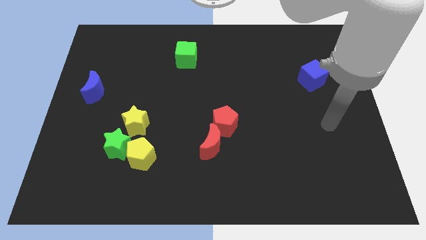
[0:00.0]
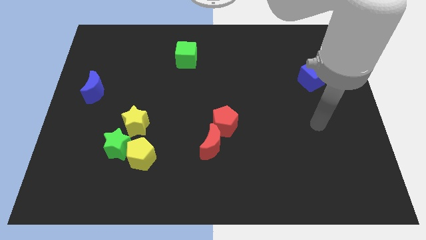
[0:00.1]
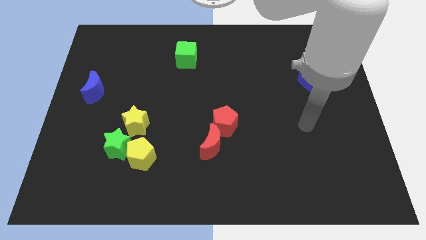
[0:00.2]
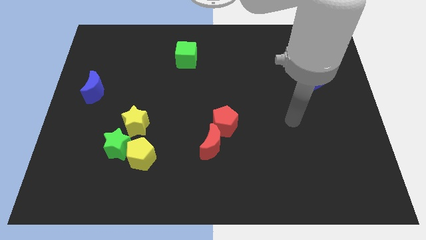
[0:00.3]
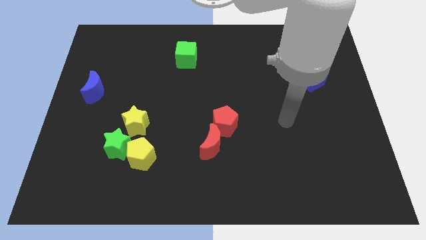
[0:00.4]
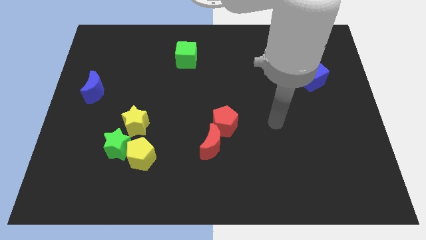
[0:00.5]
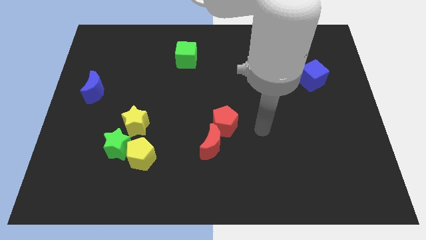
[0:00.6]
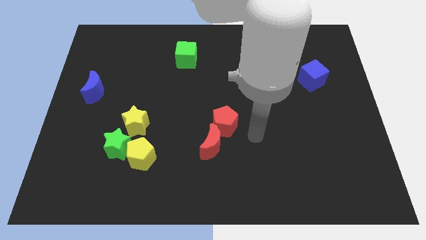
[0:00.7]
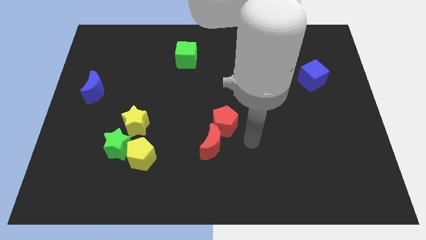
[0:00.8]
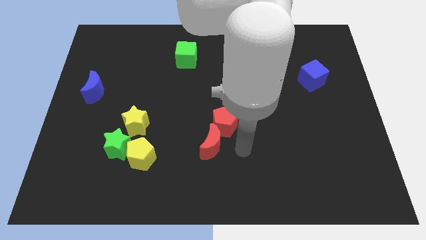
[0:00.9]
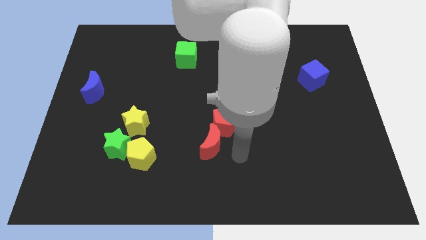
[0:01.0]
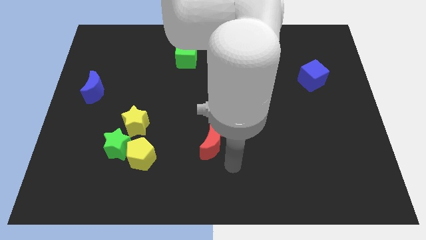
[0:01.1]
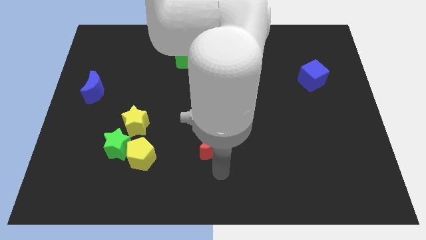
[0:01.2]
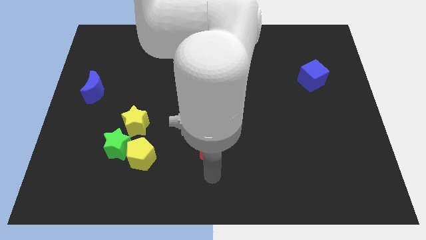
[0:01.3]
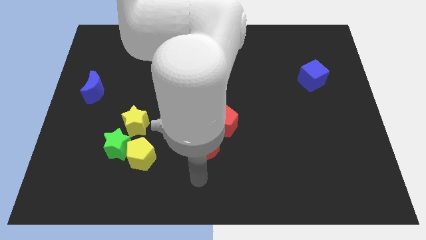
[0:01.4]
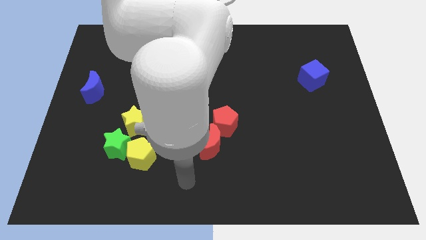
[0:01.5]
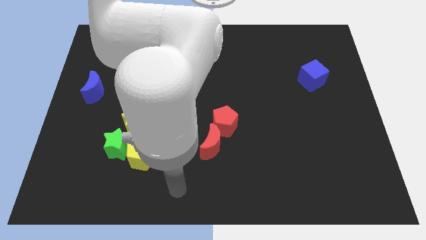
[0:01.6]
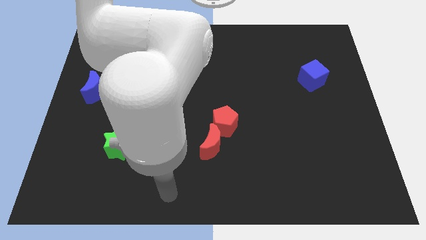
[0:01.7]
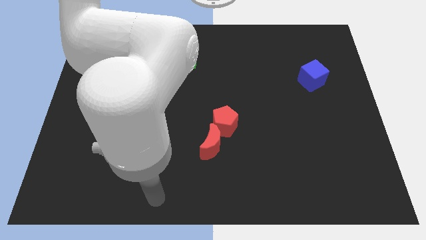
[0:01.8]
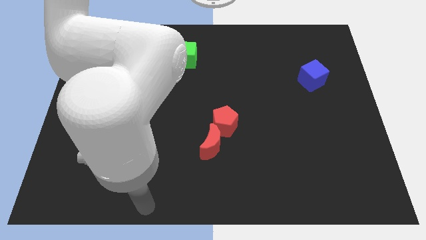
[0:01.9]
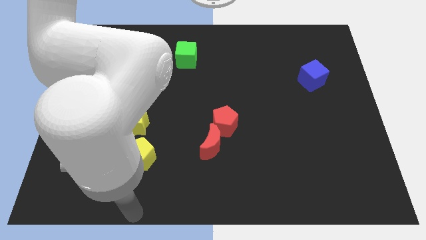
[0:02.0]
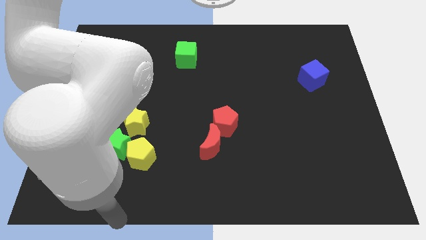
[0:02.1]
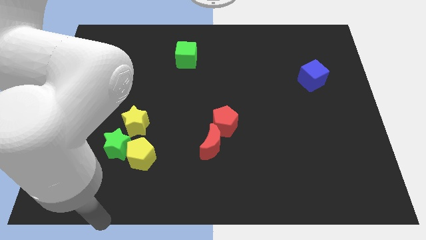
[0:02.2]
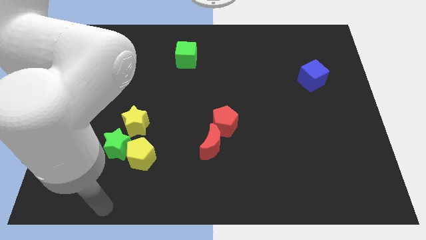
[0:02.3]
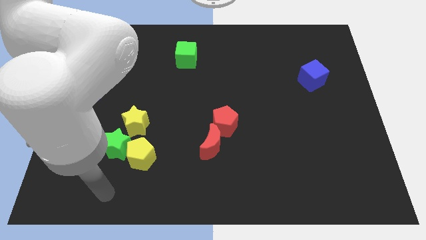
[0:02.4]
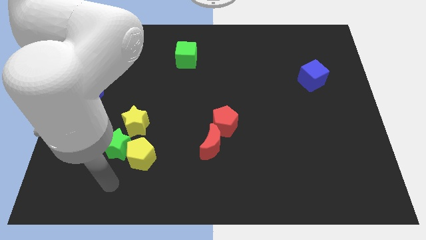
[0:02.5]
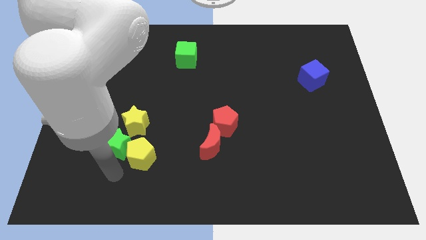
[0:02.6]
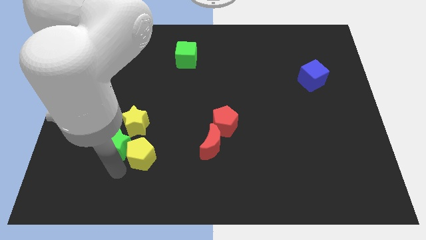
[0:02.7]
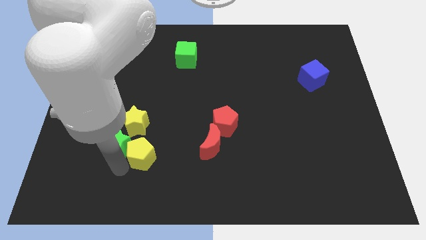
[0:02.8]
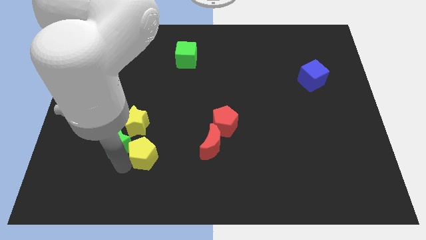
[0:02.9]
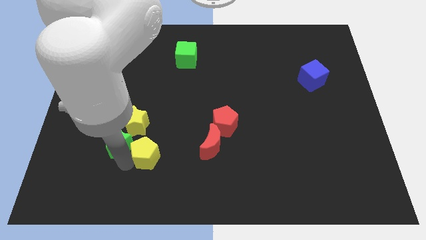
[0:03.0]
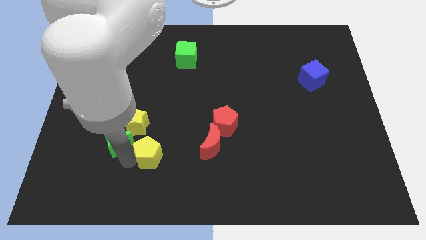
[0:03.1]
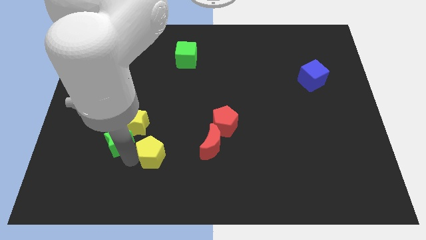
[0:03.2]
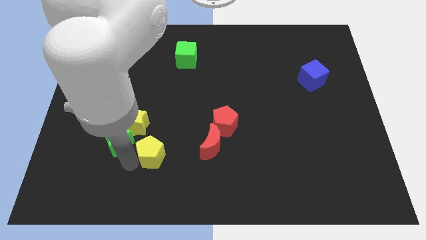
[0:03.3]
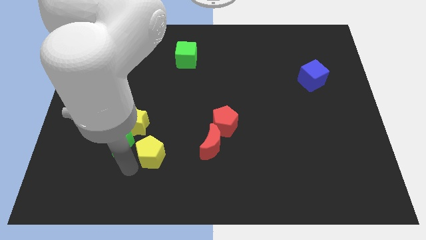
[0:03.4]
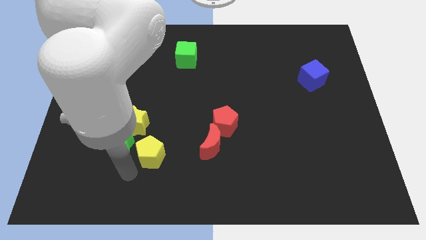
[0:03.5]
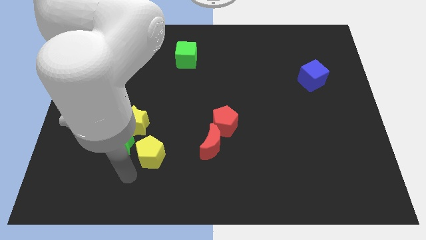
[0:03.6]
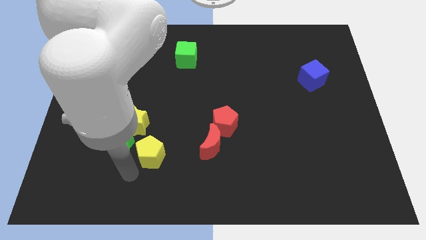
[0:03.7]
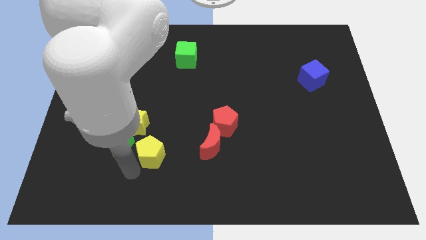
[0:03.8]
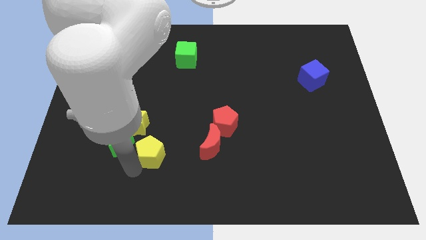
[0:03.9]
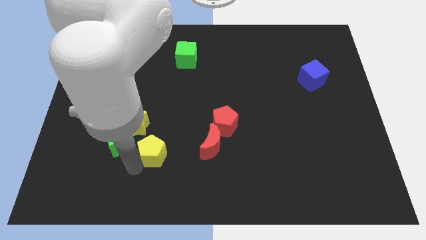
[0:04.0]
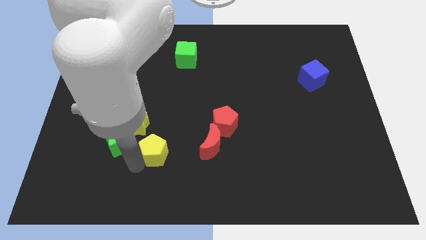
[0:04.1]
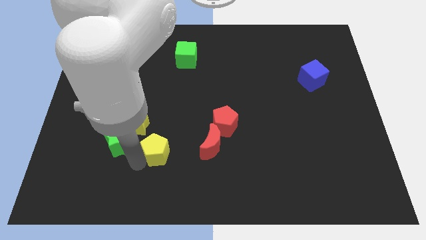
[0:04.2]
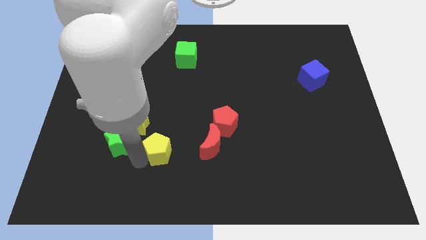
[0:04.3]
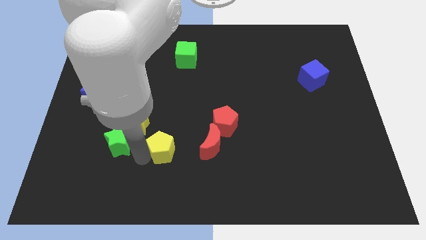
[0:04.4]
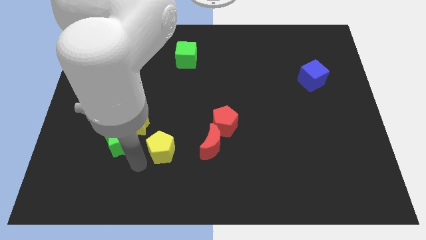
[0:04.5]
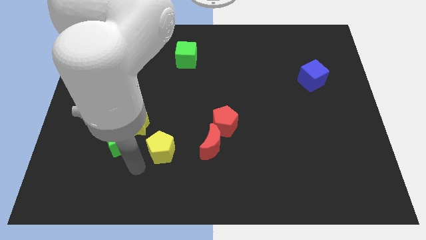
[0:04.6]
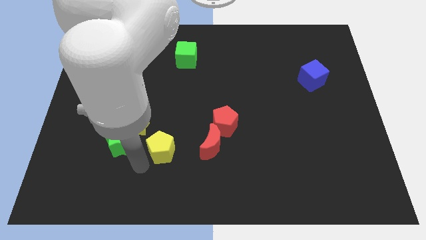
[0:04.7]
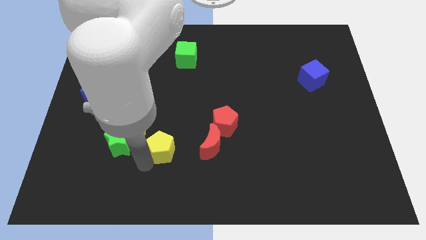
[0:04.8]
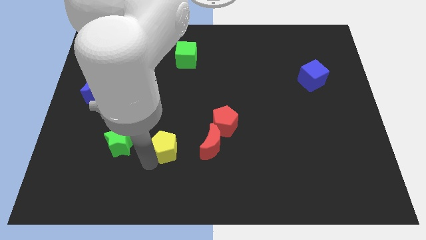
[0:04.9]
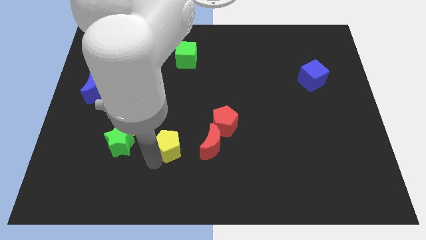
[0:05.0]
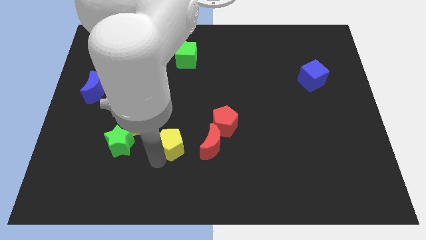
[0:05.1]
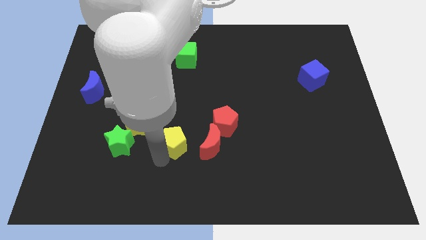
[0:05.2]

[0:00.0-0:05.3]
move the yellow pentagon somewhat diagonally upwards and to the right

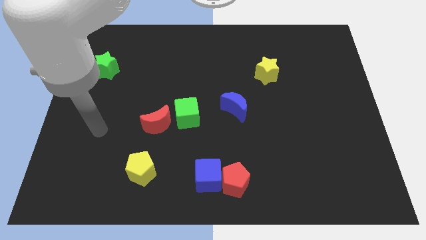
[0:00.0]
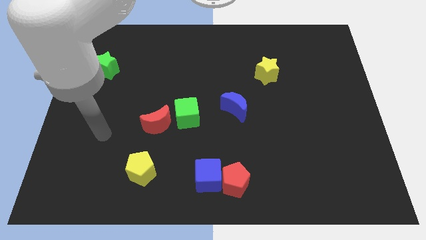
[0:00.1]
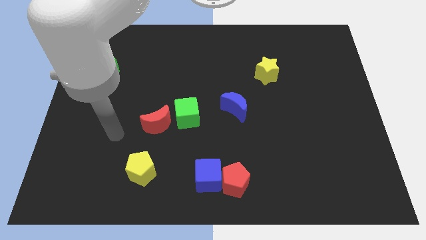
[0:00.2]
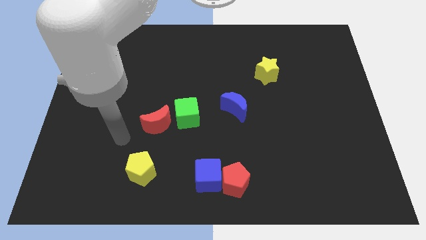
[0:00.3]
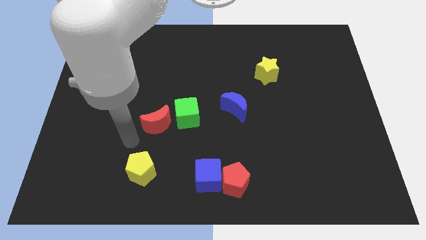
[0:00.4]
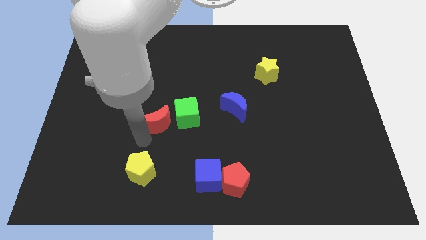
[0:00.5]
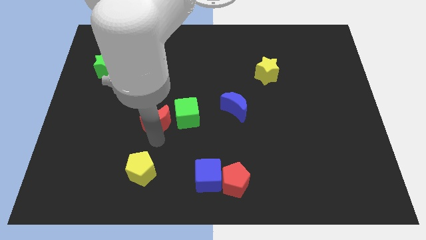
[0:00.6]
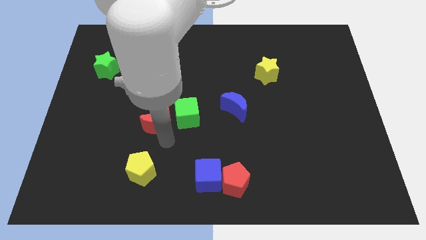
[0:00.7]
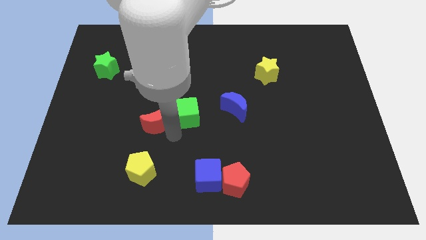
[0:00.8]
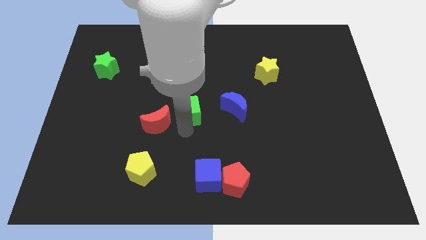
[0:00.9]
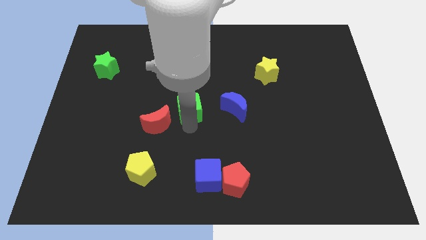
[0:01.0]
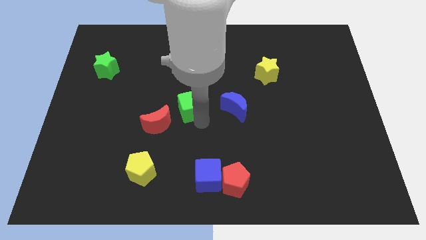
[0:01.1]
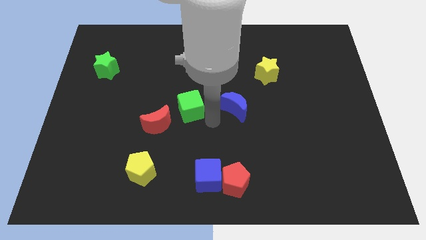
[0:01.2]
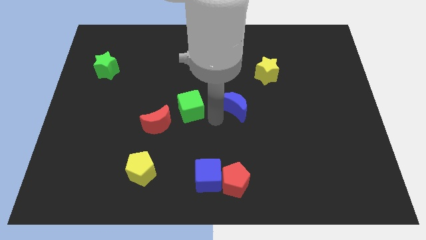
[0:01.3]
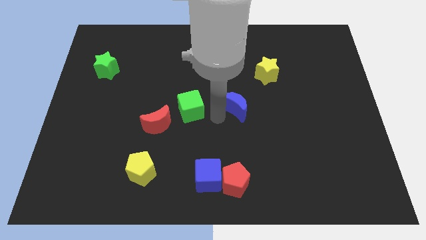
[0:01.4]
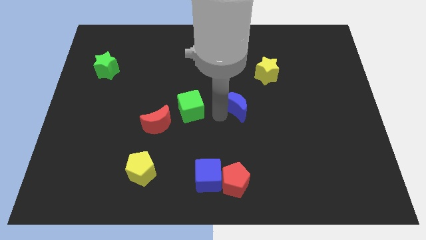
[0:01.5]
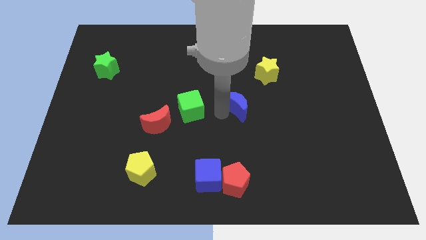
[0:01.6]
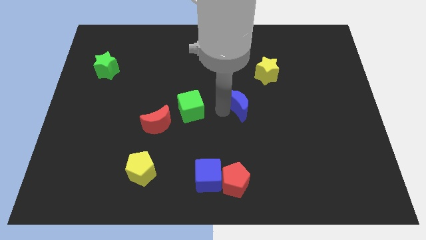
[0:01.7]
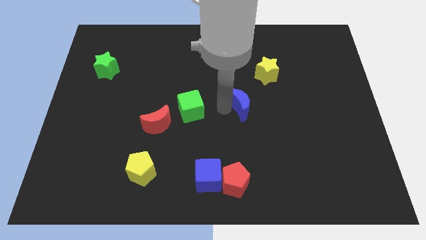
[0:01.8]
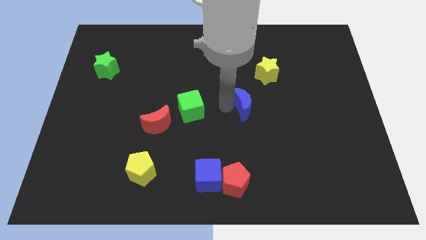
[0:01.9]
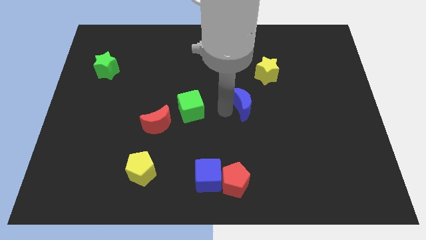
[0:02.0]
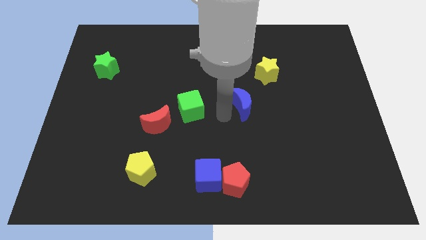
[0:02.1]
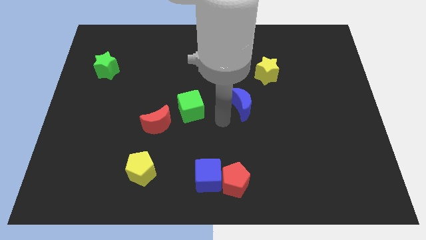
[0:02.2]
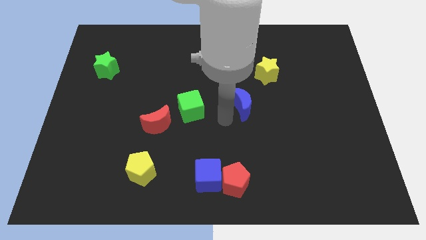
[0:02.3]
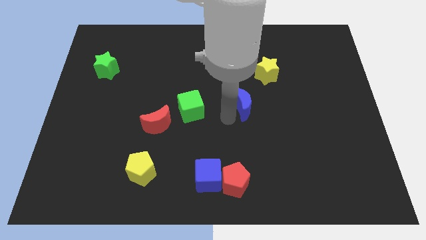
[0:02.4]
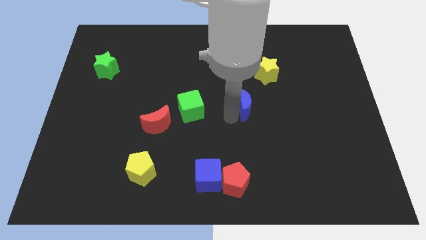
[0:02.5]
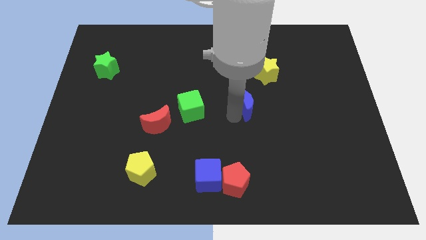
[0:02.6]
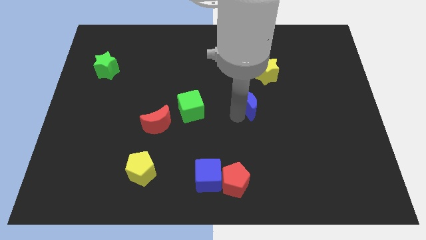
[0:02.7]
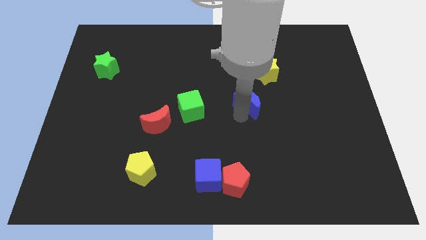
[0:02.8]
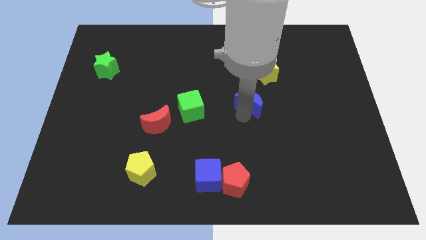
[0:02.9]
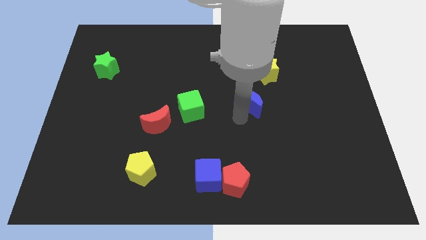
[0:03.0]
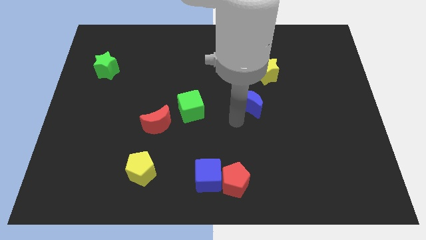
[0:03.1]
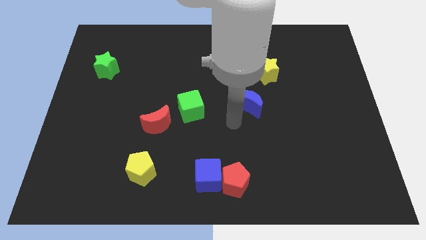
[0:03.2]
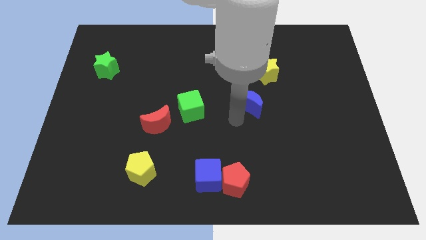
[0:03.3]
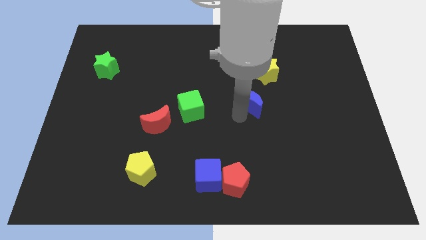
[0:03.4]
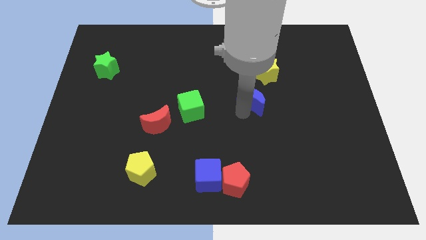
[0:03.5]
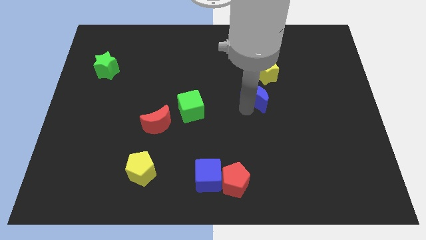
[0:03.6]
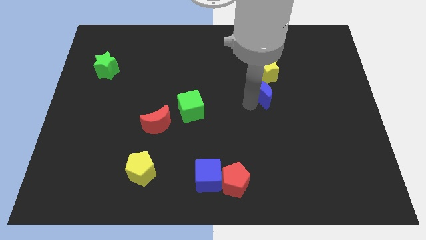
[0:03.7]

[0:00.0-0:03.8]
push the blue moon up and then right a little
